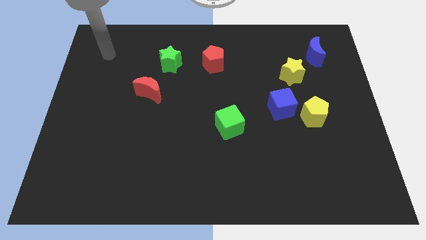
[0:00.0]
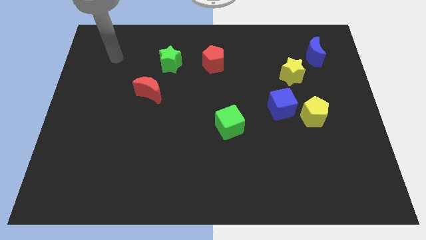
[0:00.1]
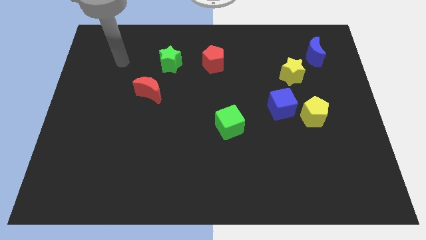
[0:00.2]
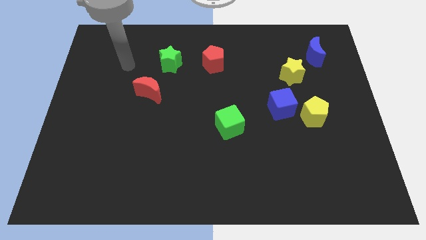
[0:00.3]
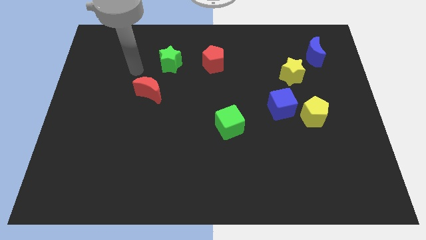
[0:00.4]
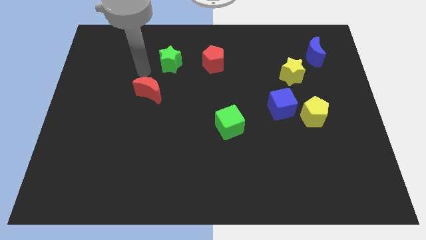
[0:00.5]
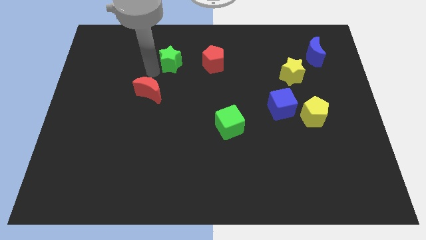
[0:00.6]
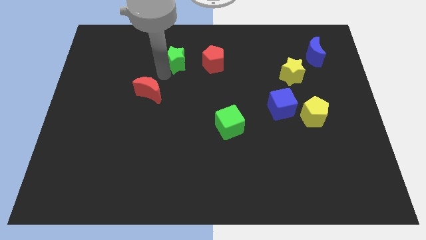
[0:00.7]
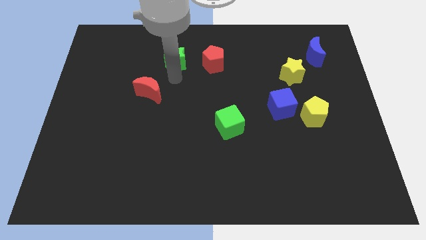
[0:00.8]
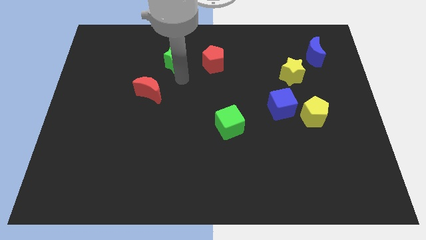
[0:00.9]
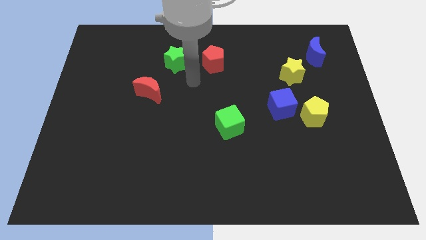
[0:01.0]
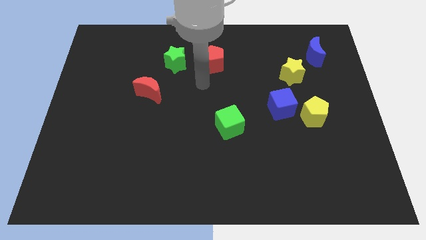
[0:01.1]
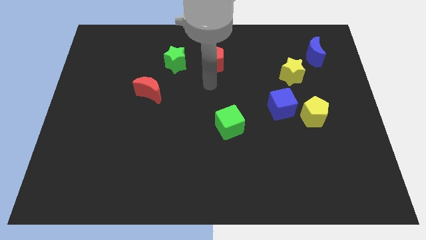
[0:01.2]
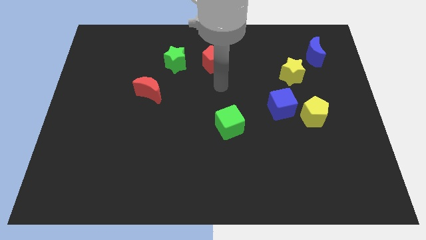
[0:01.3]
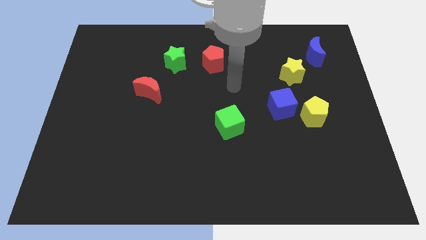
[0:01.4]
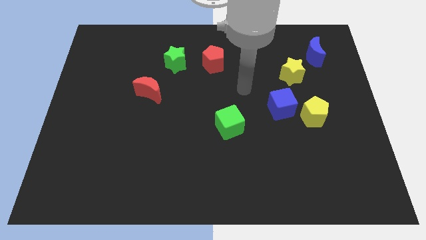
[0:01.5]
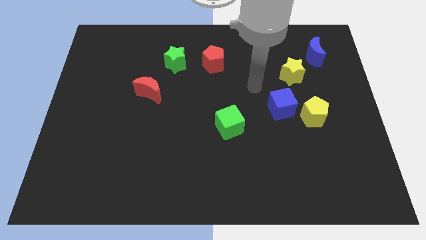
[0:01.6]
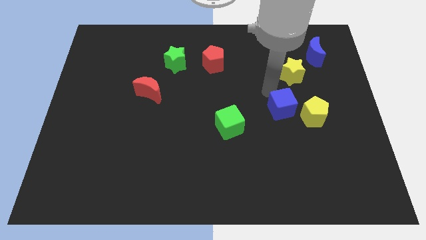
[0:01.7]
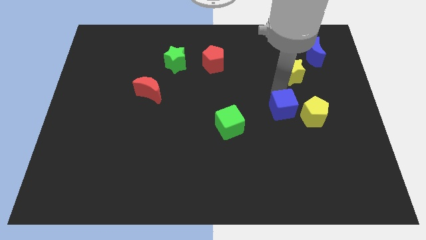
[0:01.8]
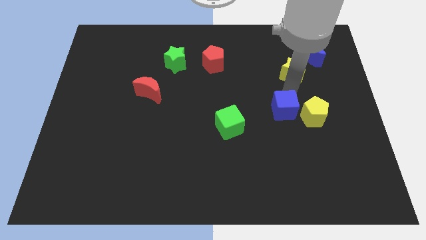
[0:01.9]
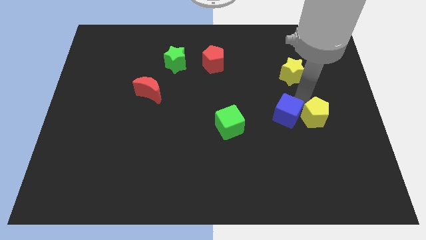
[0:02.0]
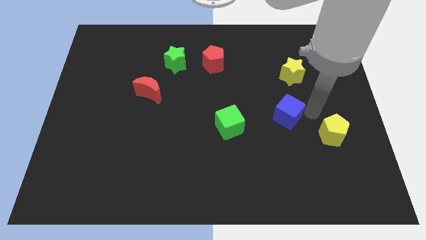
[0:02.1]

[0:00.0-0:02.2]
move the blue cube away from the yellow pentagon

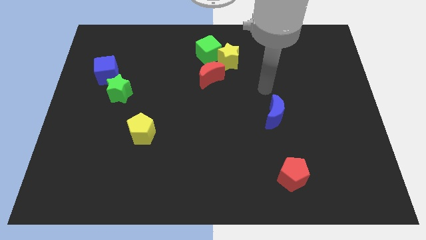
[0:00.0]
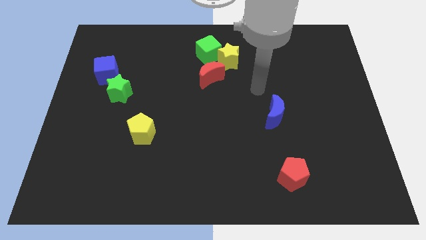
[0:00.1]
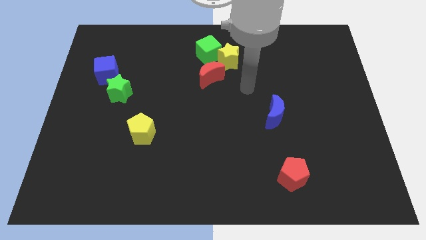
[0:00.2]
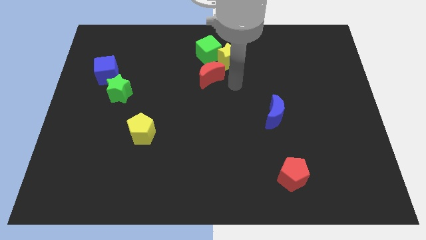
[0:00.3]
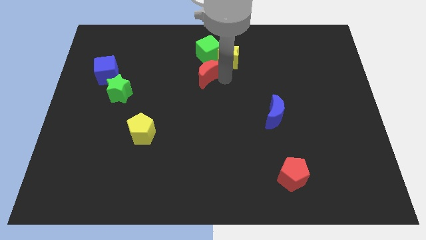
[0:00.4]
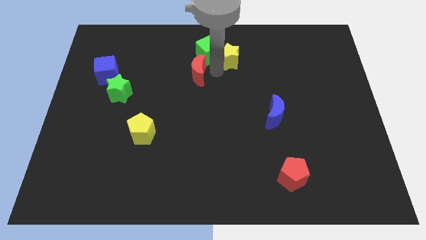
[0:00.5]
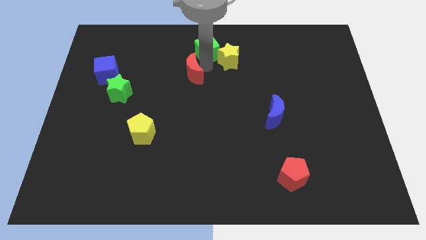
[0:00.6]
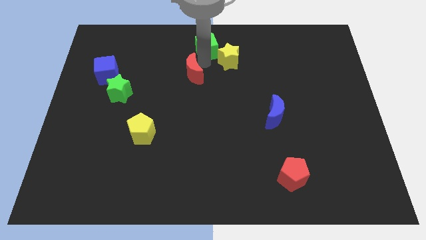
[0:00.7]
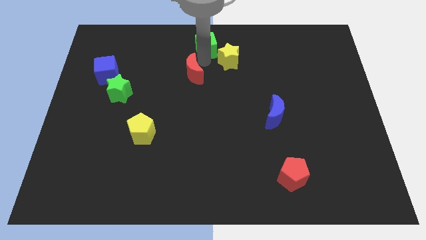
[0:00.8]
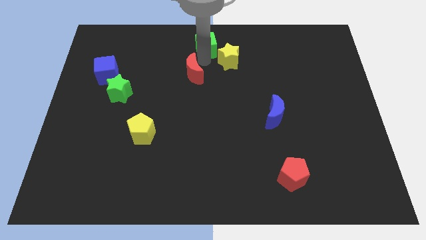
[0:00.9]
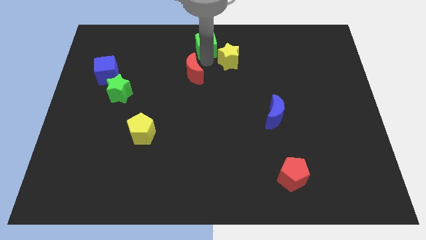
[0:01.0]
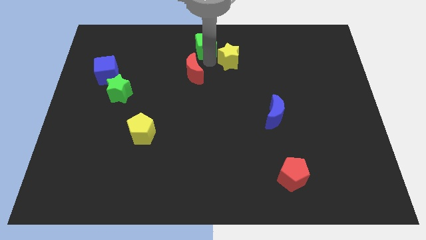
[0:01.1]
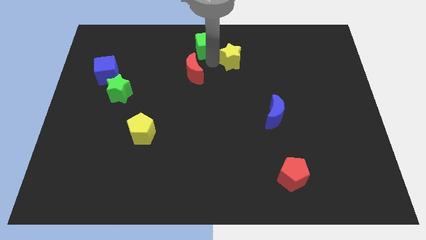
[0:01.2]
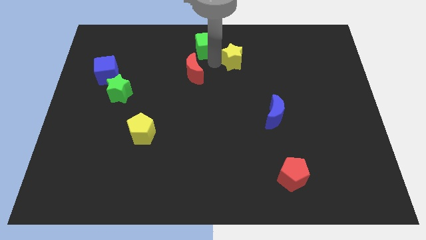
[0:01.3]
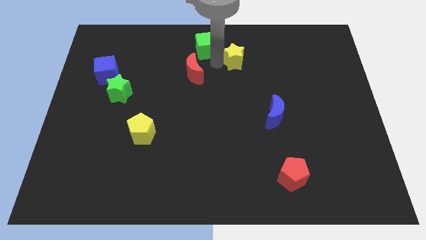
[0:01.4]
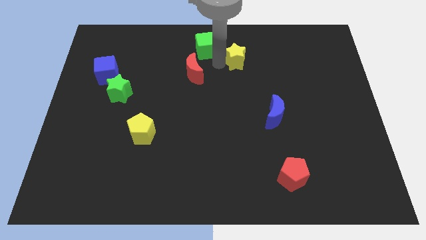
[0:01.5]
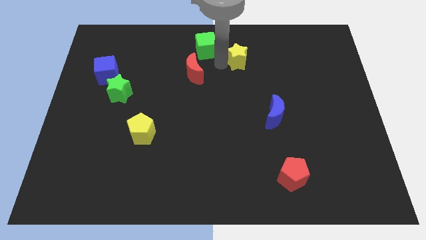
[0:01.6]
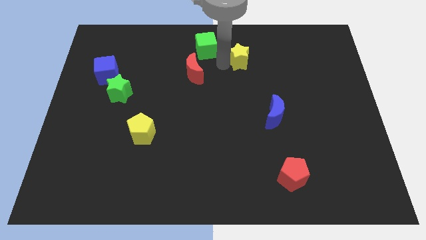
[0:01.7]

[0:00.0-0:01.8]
separate the yellow star from the green cube and red moon

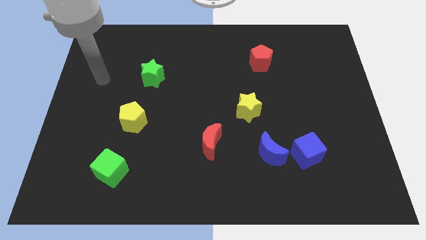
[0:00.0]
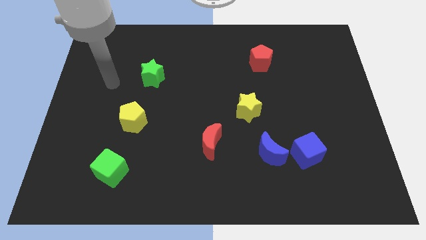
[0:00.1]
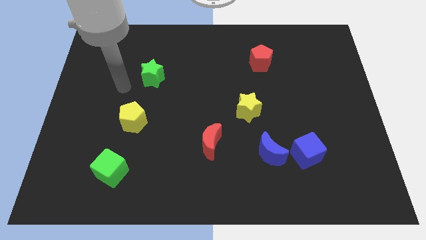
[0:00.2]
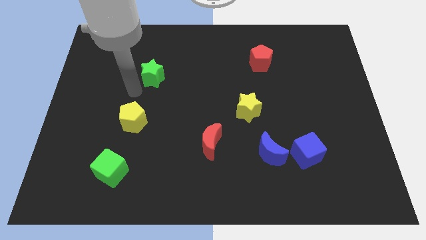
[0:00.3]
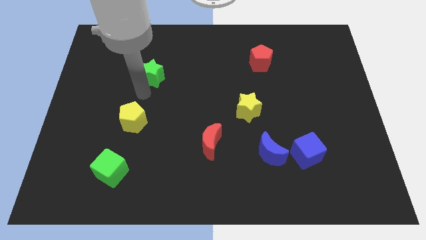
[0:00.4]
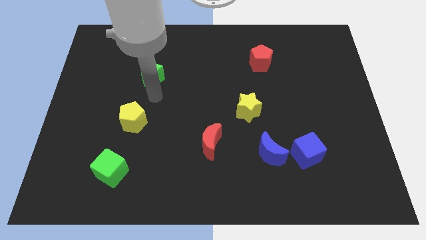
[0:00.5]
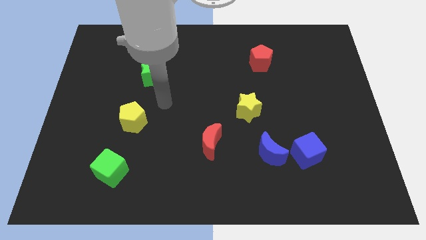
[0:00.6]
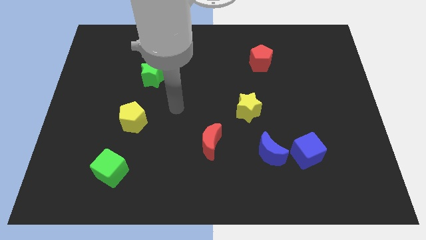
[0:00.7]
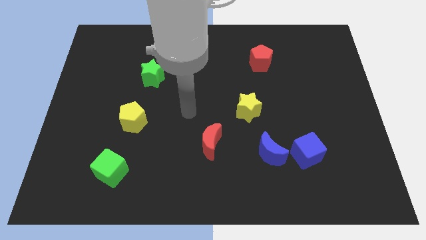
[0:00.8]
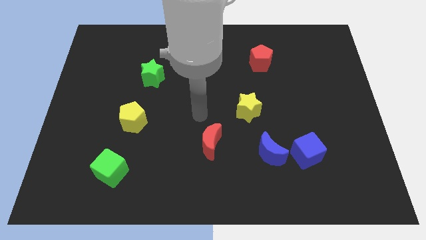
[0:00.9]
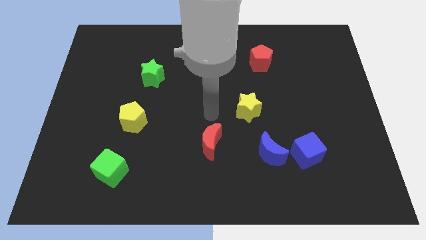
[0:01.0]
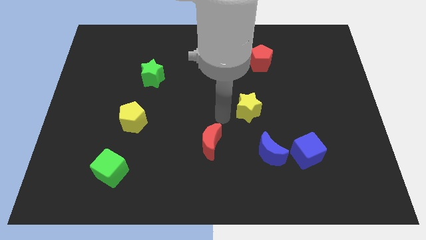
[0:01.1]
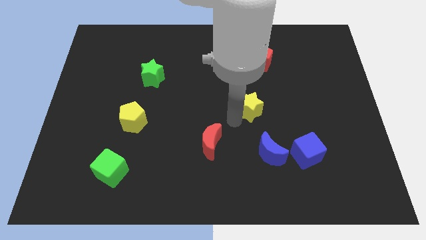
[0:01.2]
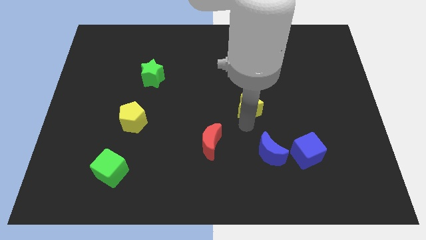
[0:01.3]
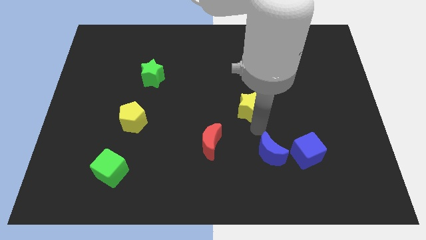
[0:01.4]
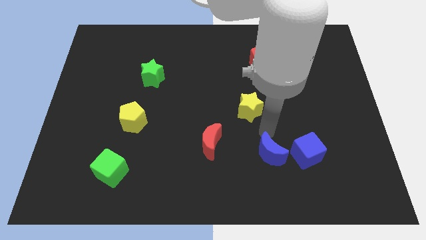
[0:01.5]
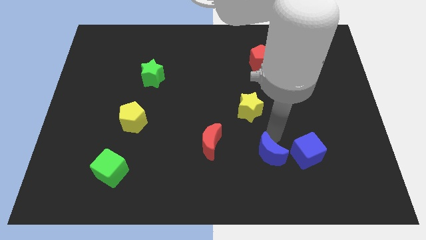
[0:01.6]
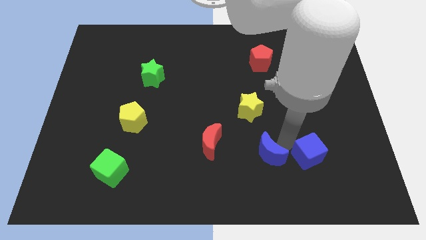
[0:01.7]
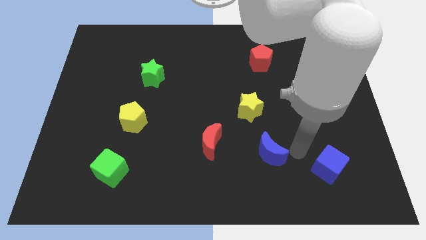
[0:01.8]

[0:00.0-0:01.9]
move the blue moon away from the blue cube

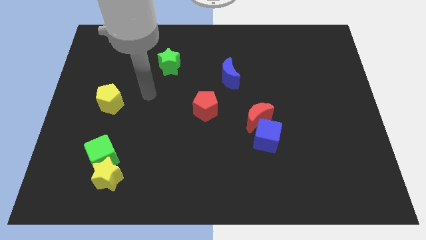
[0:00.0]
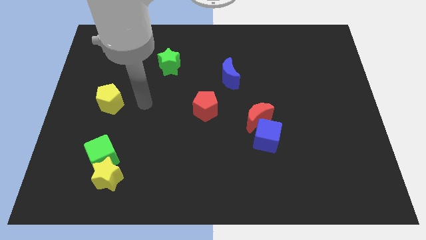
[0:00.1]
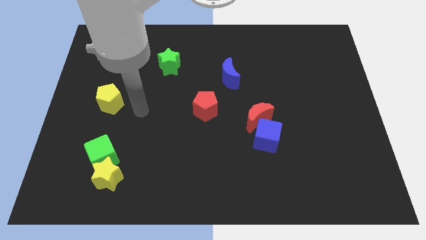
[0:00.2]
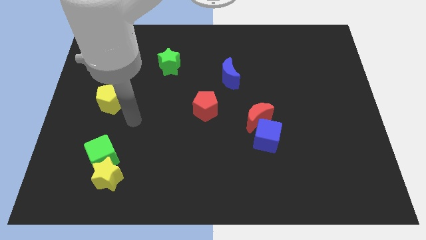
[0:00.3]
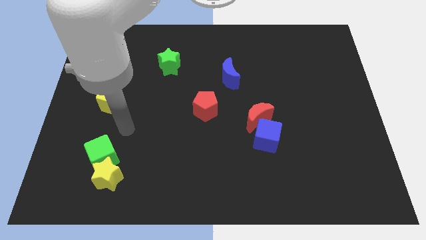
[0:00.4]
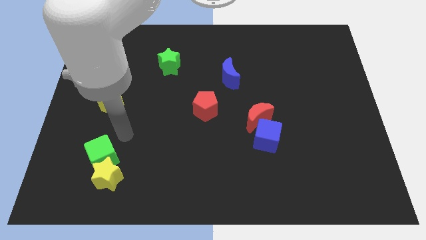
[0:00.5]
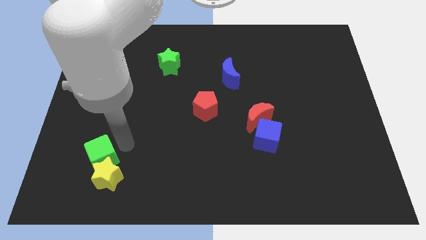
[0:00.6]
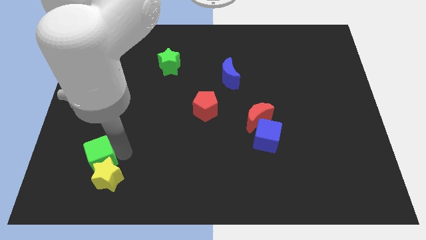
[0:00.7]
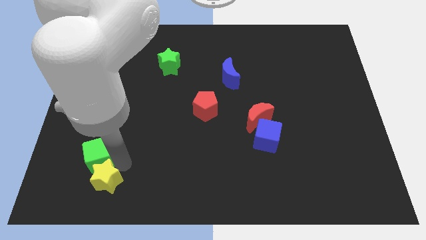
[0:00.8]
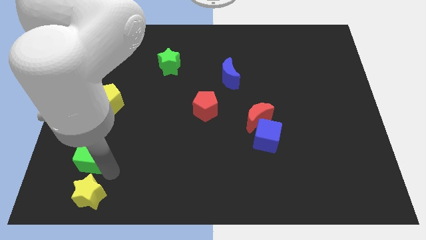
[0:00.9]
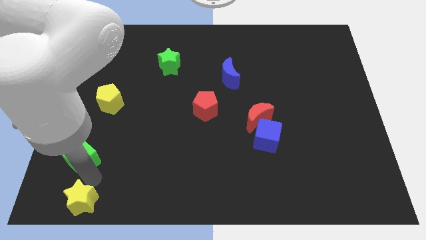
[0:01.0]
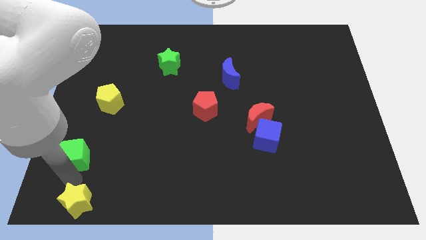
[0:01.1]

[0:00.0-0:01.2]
move the green cube away from the yellow star

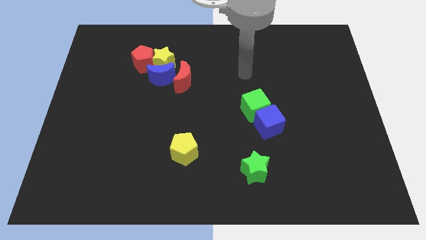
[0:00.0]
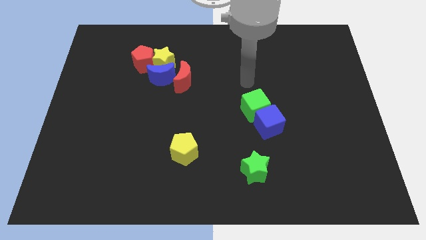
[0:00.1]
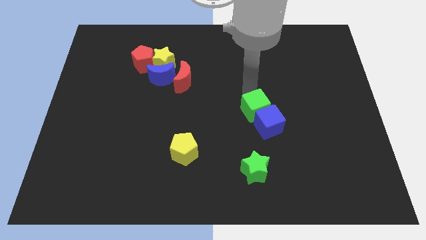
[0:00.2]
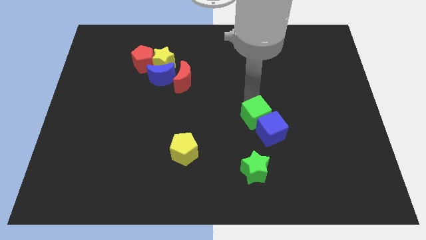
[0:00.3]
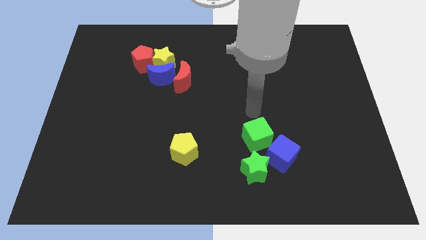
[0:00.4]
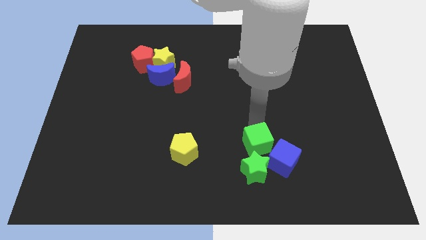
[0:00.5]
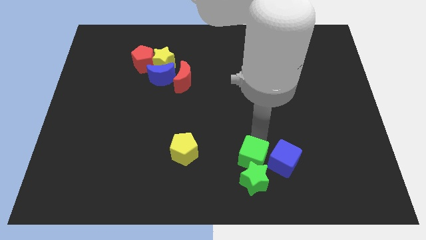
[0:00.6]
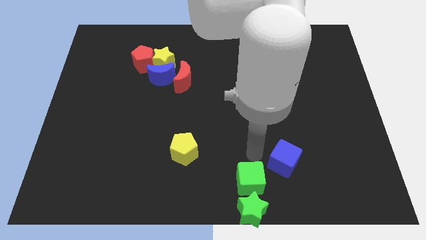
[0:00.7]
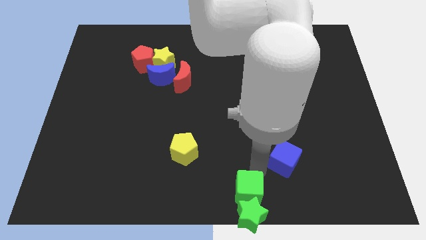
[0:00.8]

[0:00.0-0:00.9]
separate the blue cube from the green cube

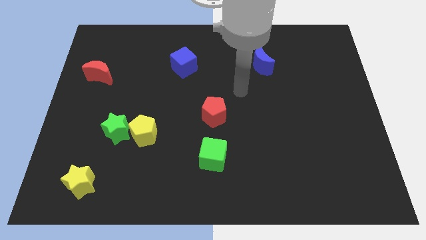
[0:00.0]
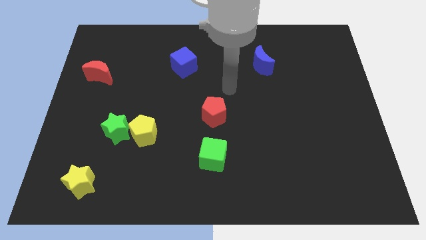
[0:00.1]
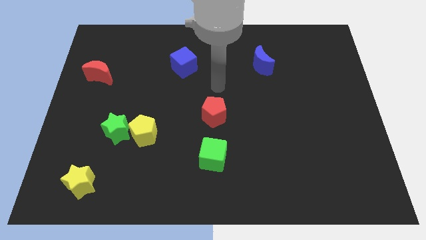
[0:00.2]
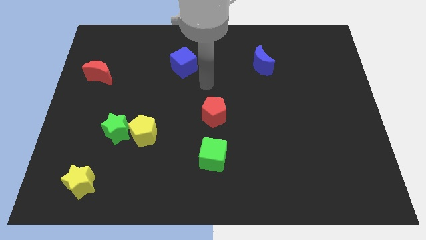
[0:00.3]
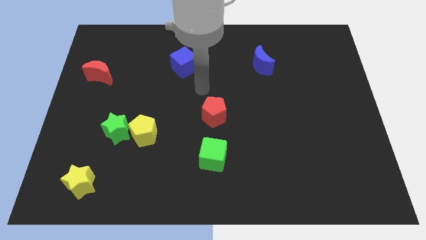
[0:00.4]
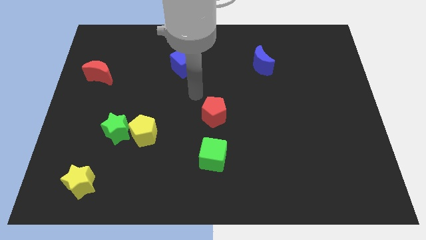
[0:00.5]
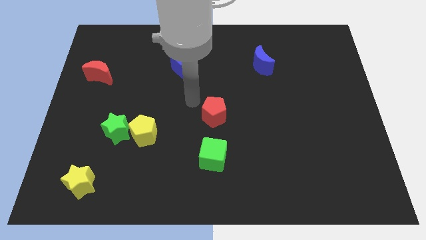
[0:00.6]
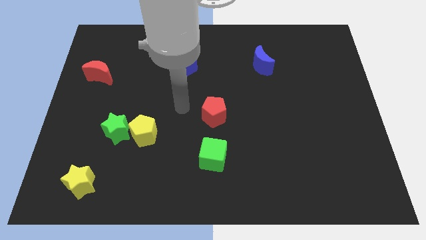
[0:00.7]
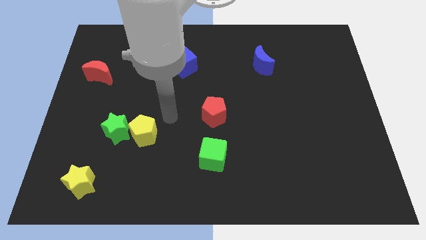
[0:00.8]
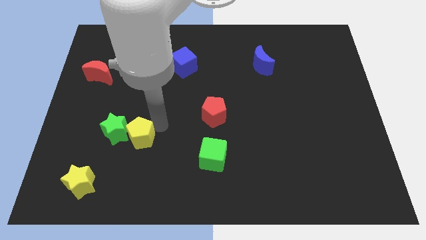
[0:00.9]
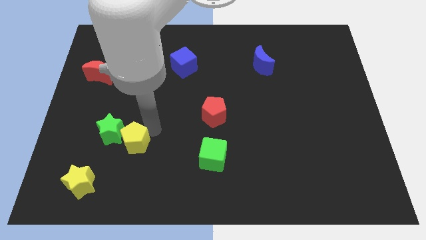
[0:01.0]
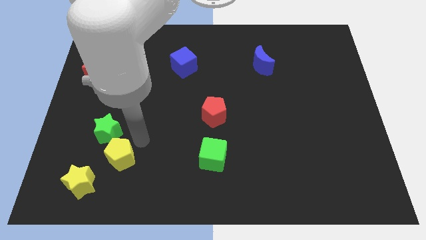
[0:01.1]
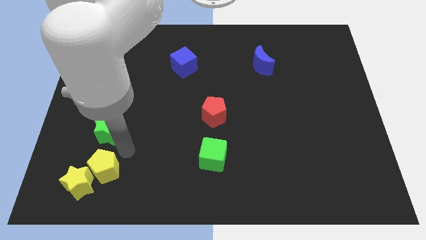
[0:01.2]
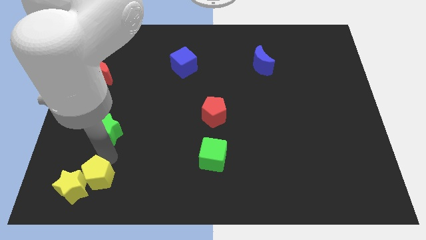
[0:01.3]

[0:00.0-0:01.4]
separate the green star from the yellow pentagon
